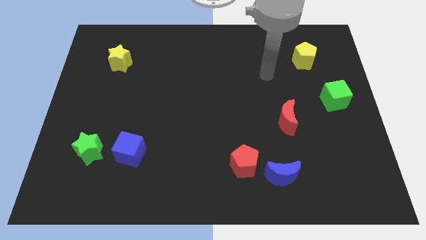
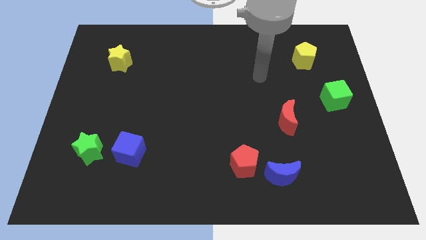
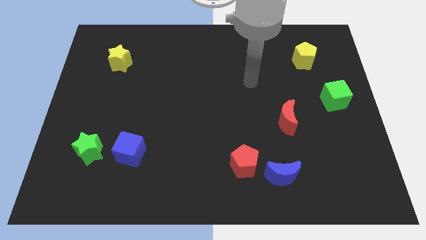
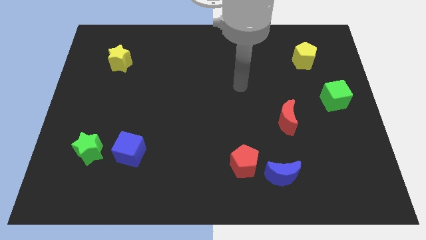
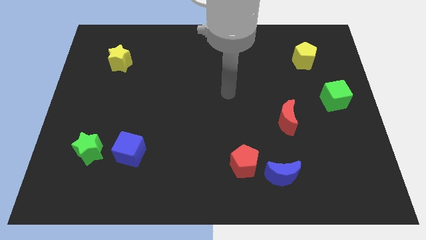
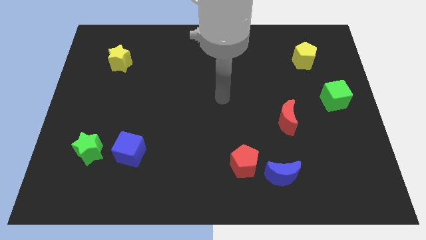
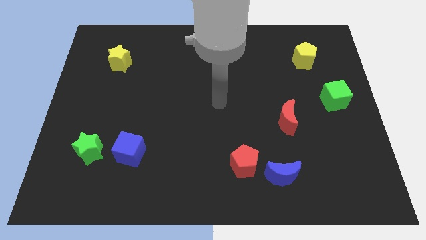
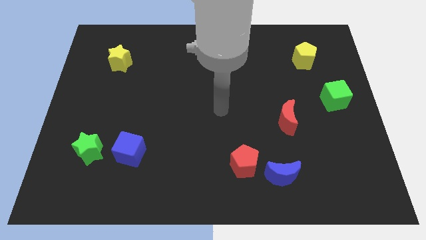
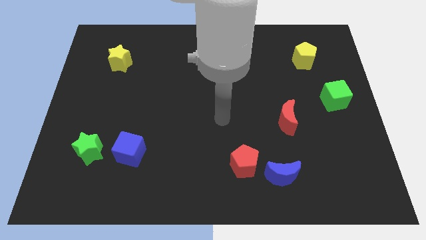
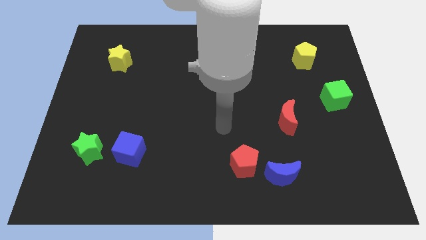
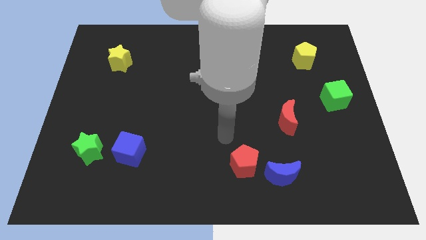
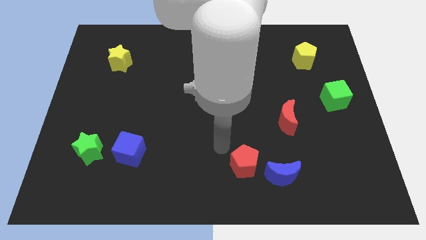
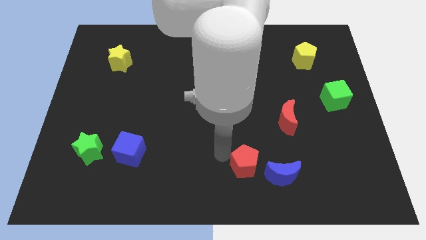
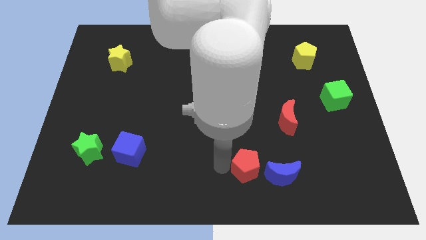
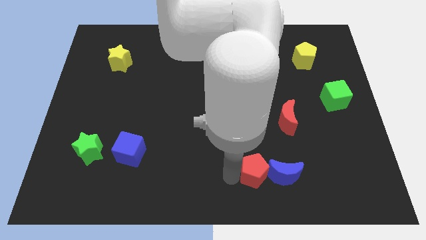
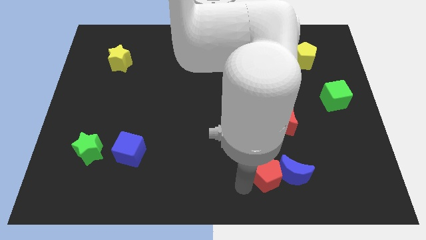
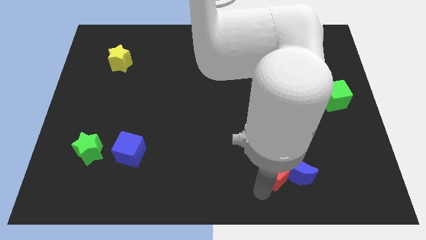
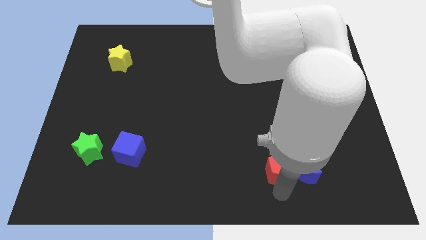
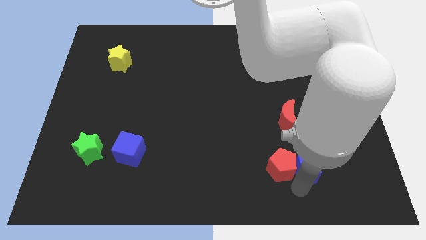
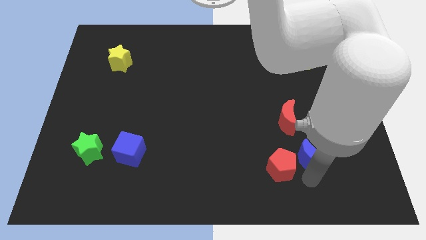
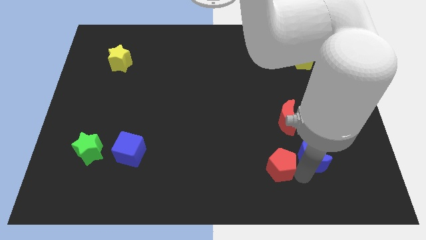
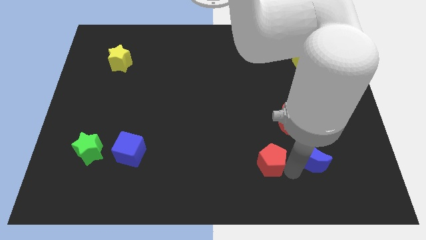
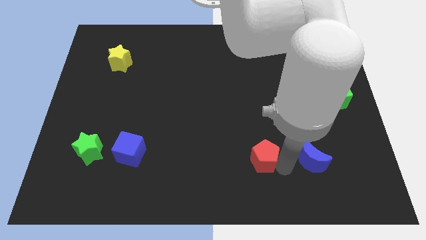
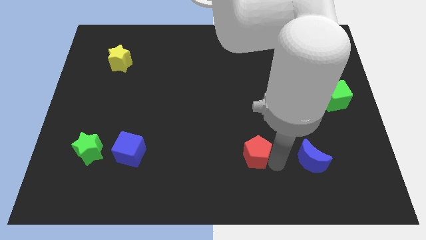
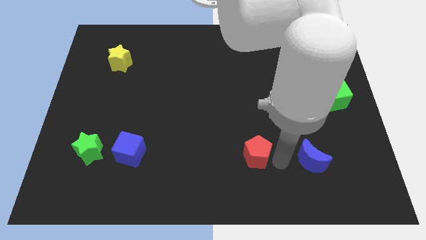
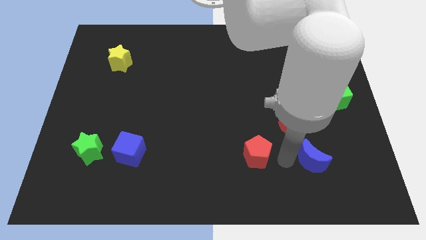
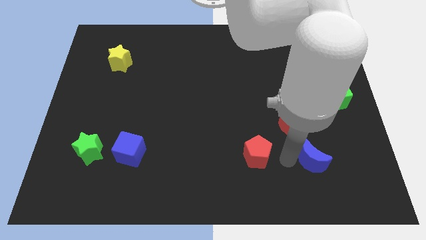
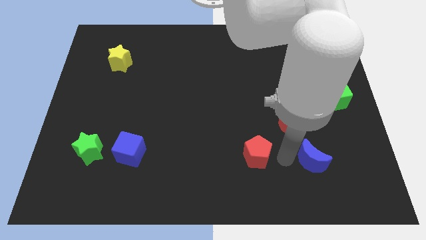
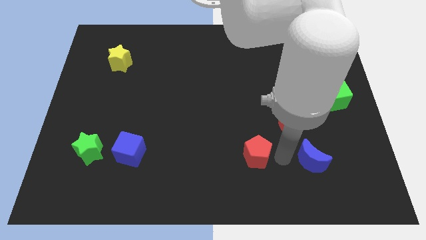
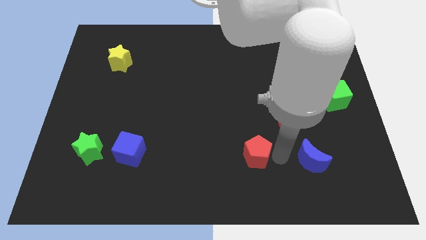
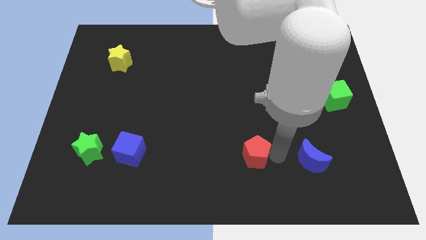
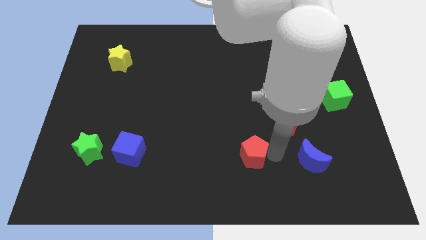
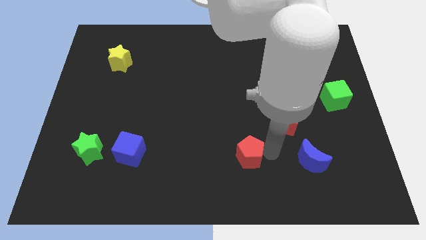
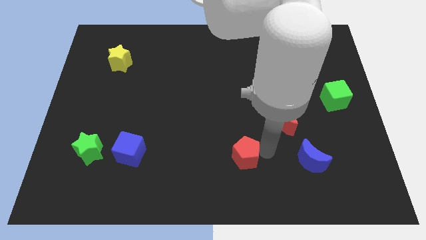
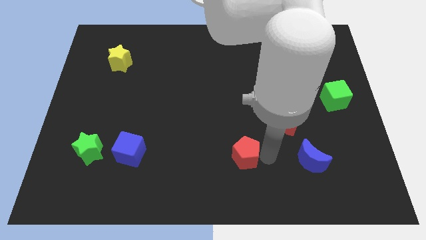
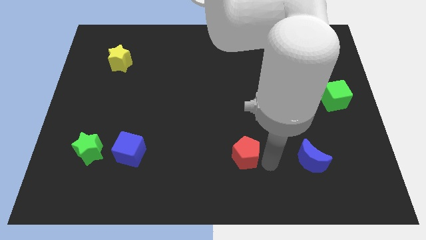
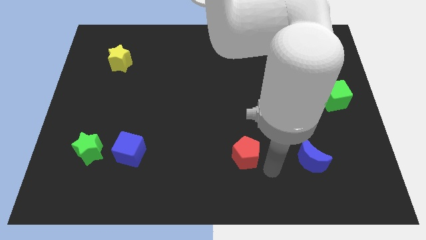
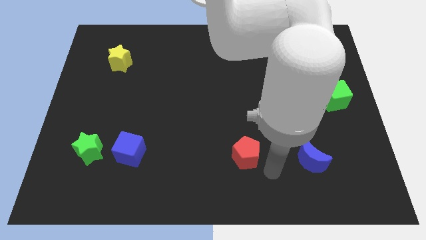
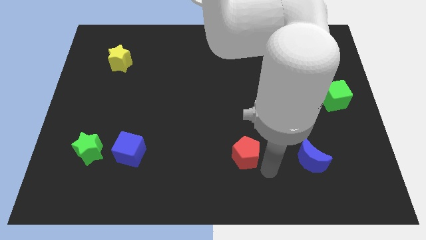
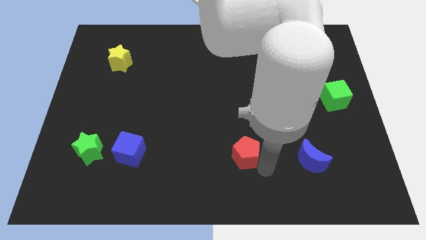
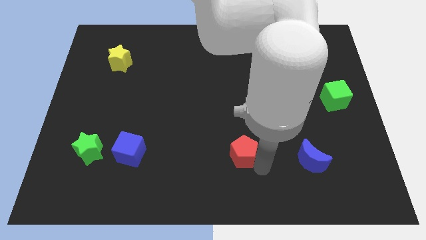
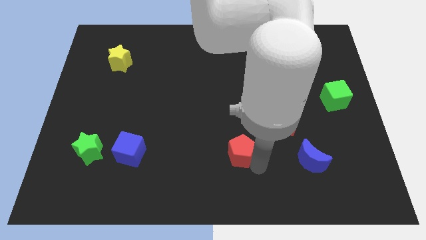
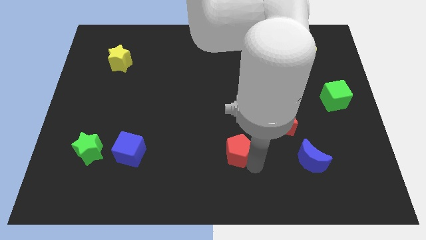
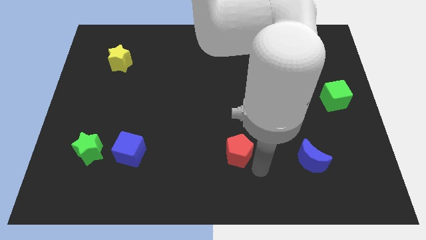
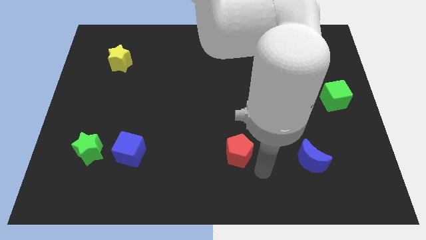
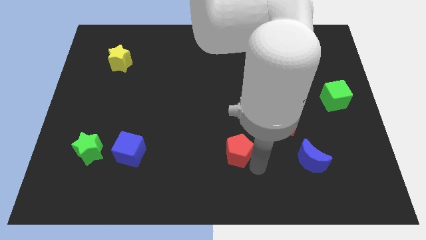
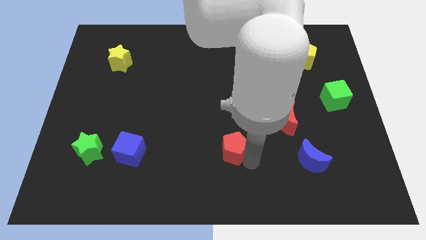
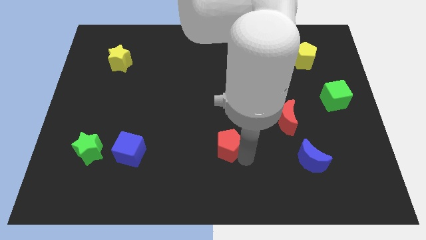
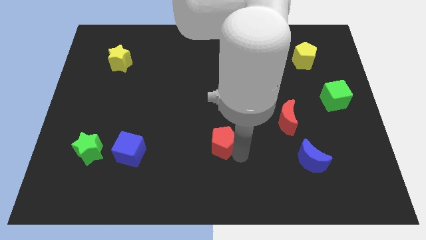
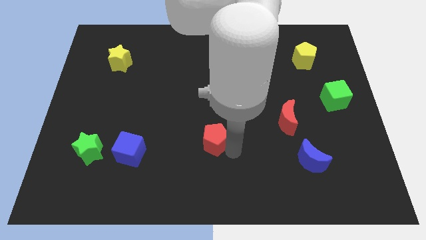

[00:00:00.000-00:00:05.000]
slide the red pentagon up and to the left diagonally a little bit

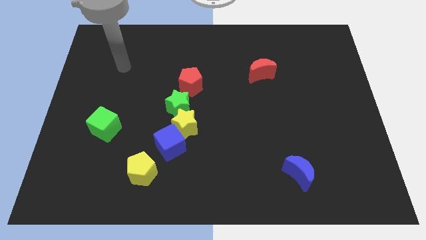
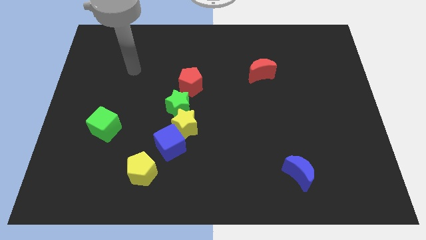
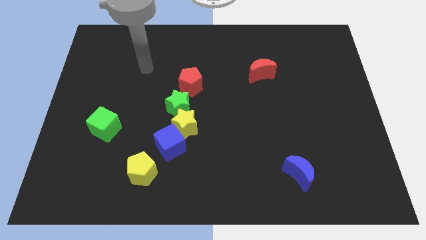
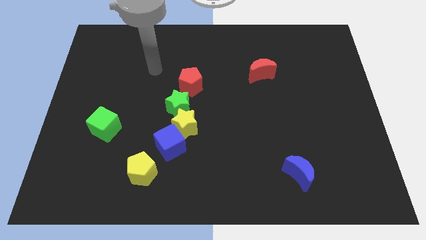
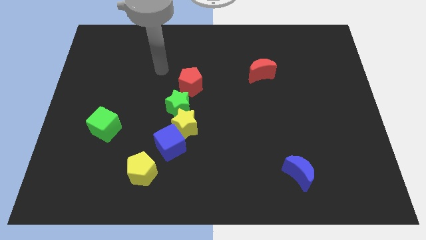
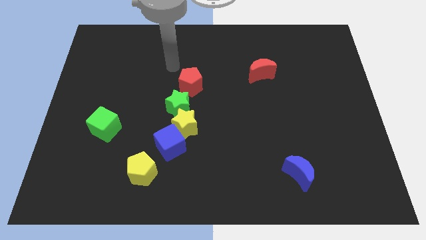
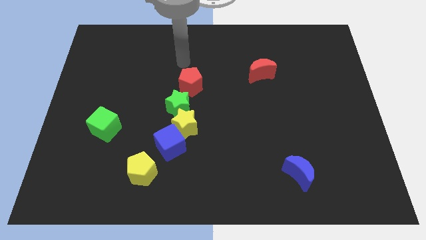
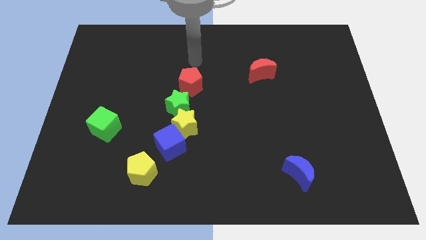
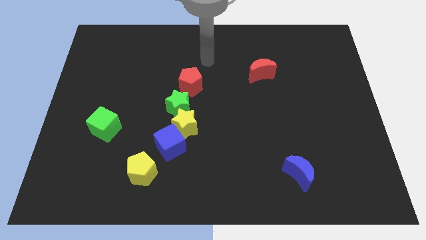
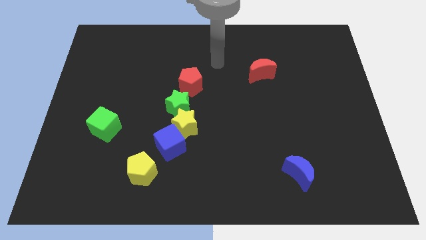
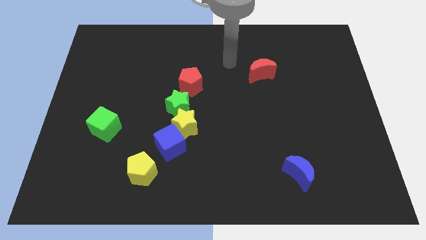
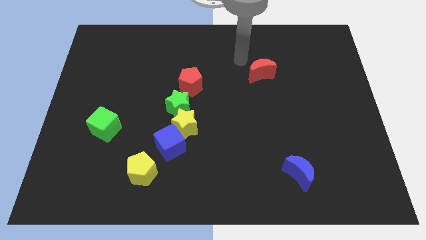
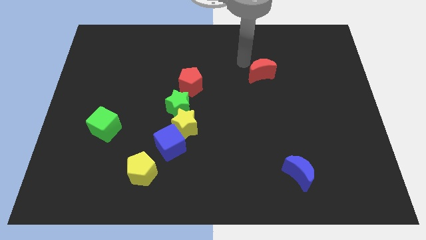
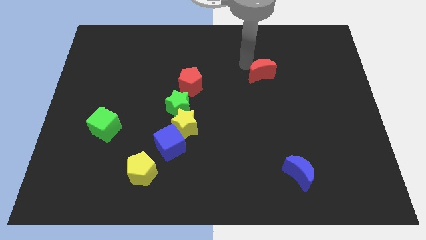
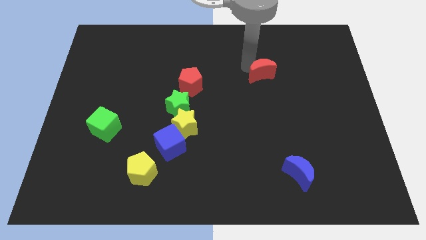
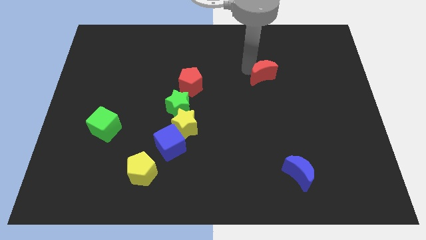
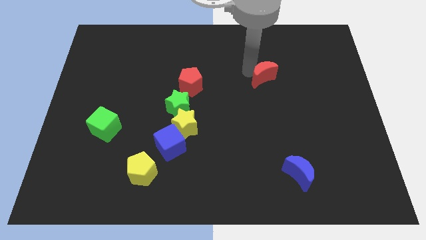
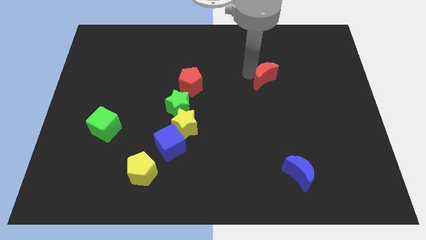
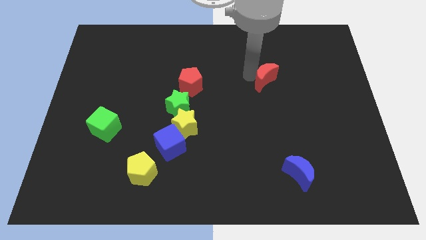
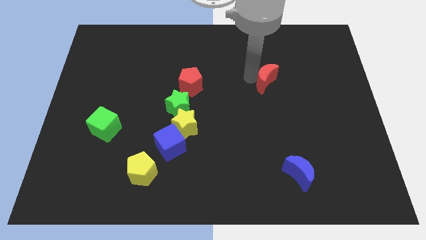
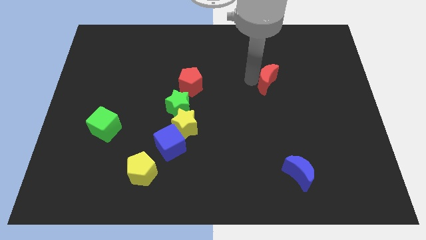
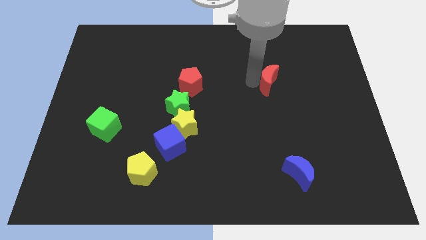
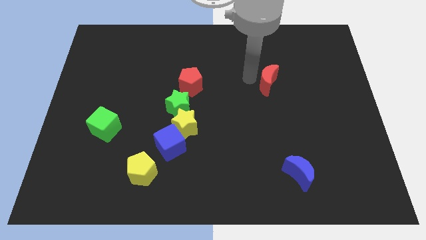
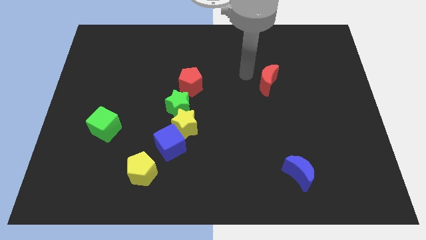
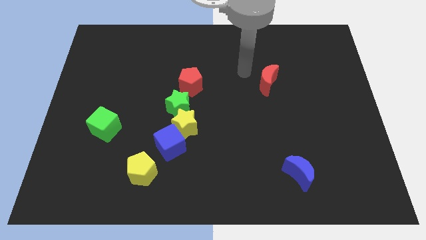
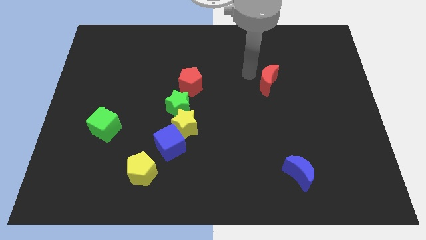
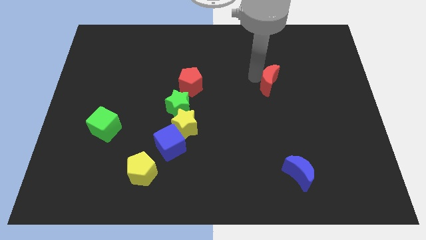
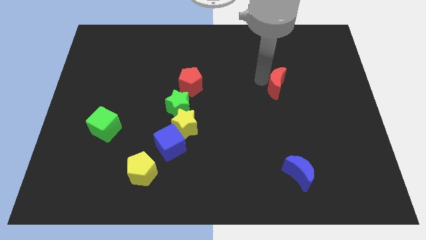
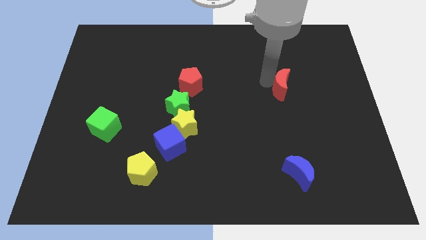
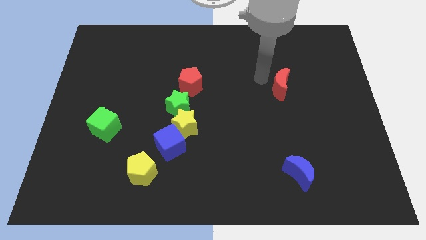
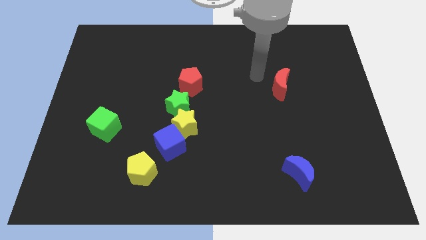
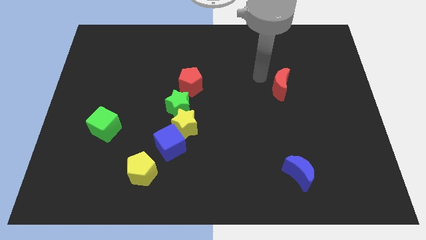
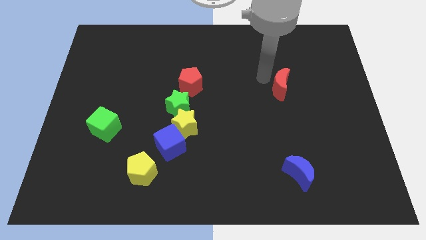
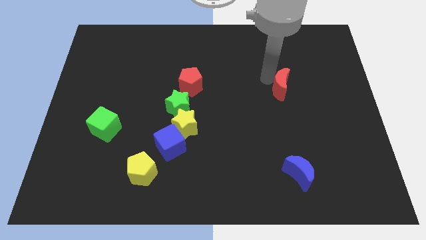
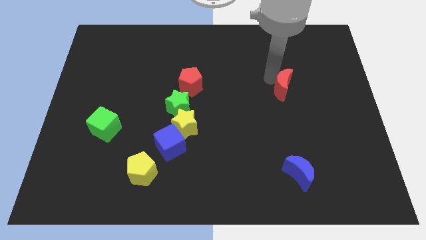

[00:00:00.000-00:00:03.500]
push the red moon a bit diagonally down and right

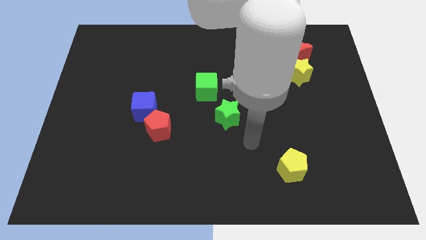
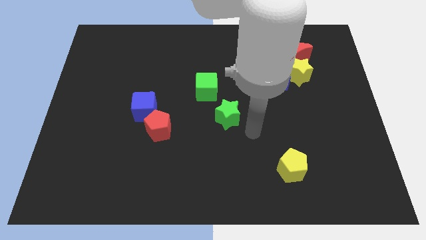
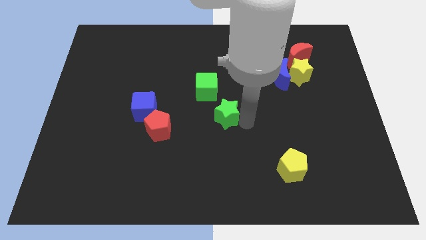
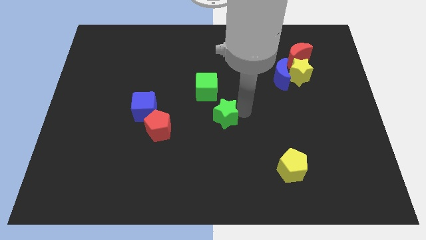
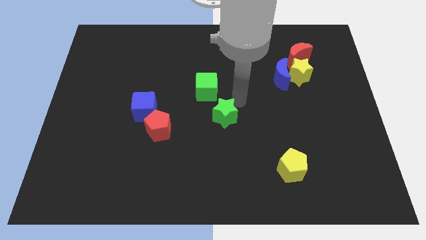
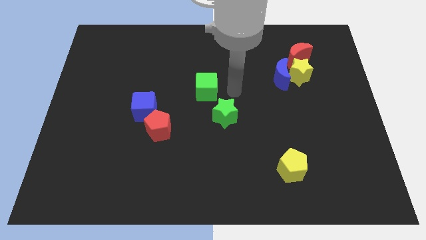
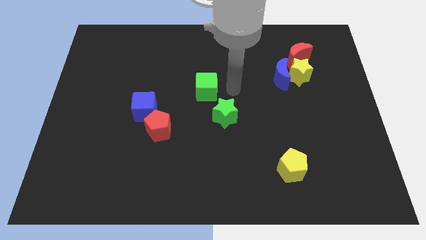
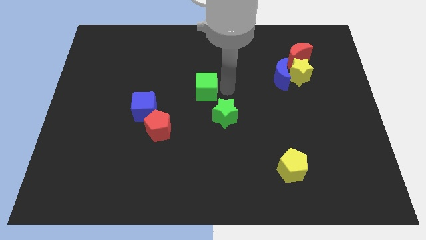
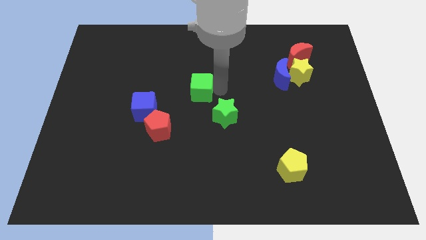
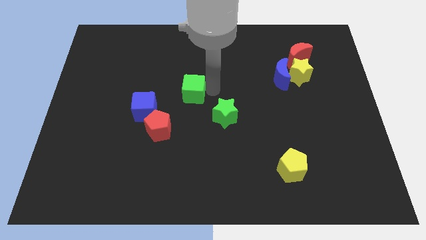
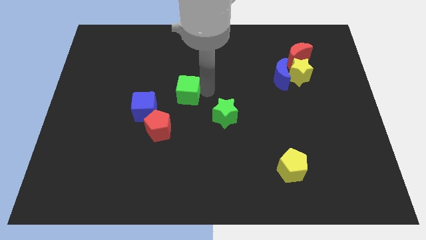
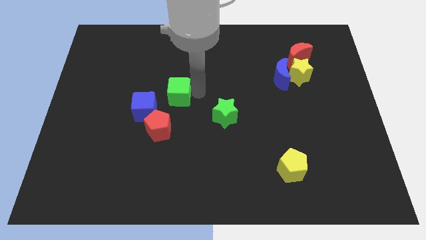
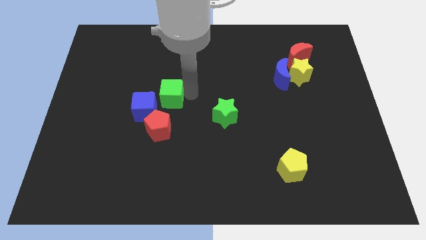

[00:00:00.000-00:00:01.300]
move the green cube to the left a little
